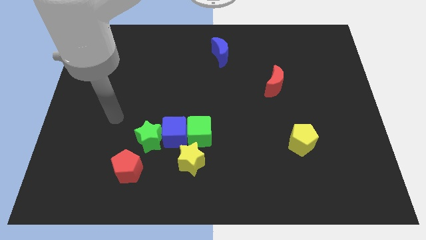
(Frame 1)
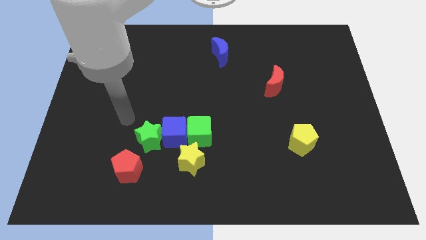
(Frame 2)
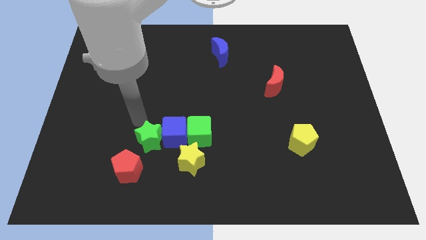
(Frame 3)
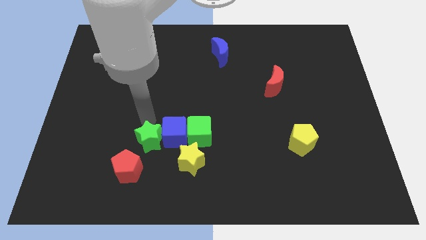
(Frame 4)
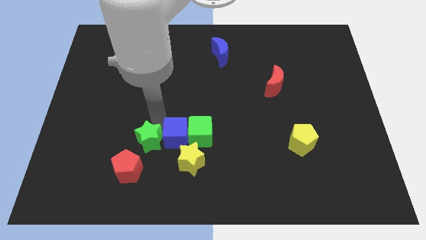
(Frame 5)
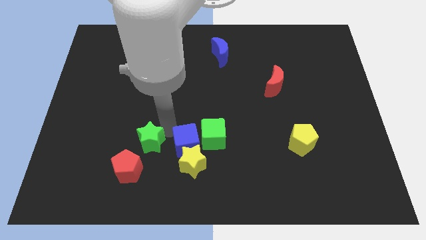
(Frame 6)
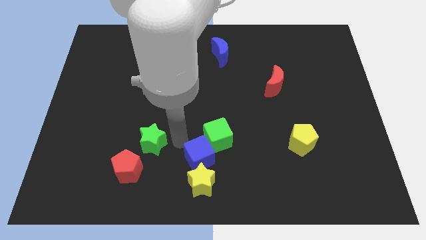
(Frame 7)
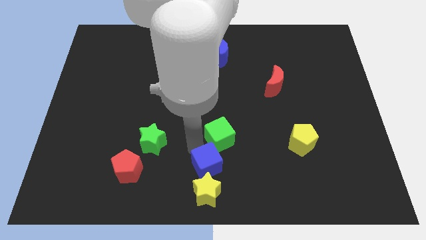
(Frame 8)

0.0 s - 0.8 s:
pull the green cube apart from the blue cube and yellow star

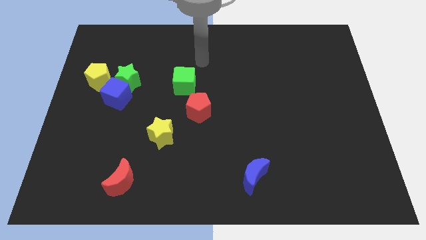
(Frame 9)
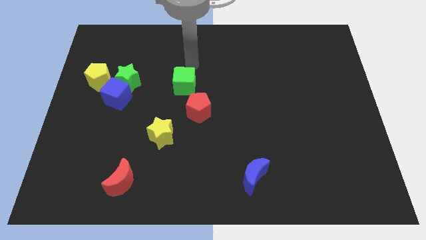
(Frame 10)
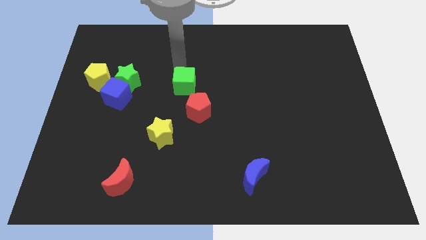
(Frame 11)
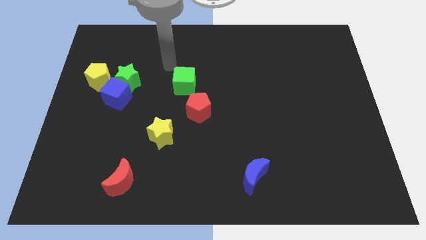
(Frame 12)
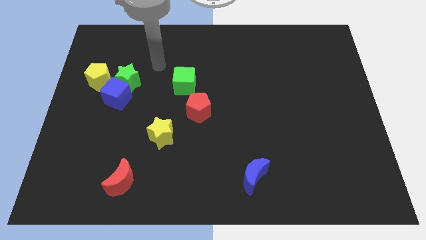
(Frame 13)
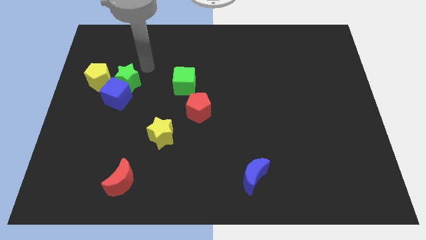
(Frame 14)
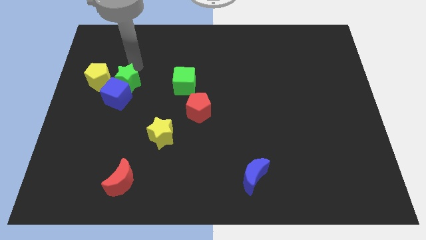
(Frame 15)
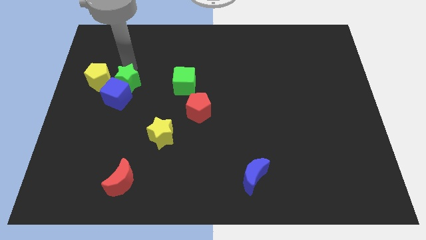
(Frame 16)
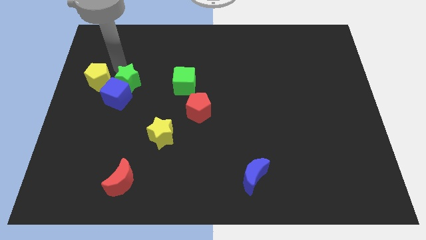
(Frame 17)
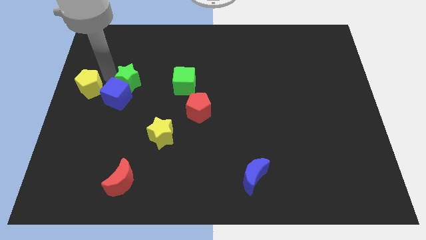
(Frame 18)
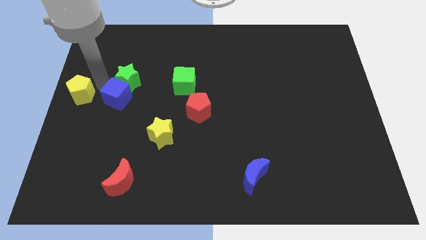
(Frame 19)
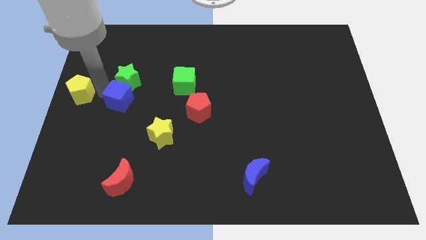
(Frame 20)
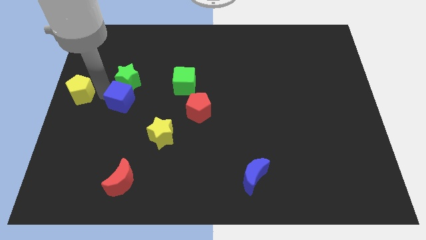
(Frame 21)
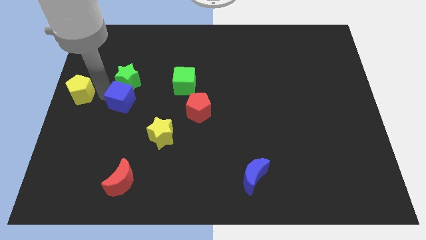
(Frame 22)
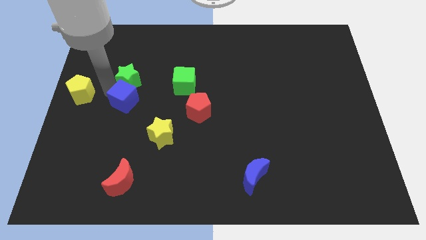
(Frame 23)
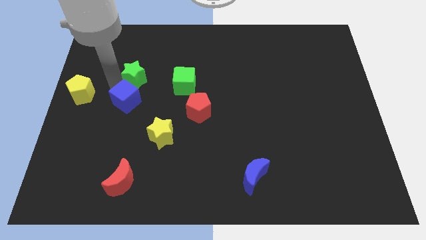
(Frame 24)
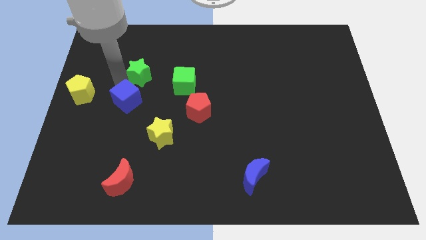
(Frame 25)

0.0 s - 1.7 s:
move the green star away from the blue cube and yellow pentagon

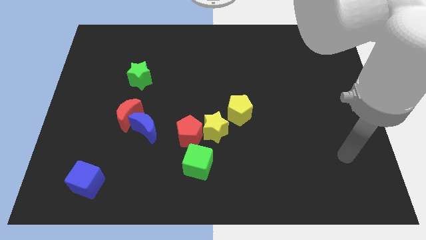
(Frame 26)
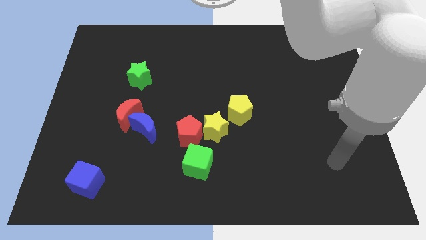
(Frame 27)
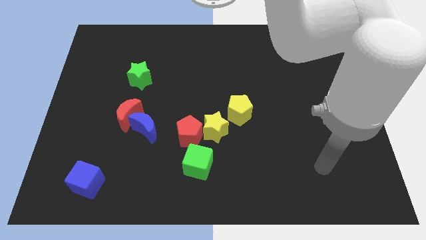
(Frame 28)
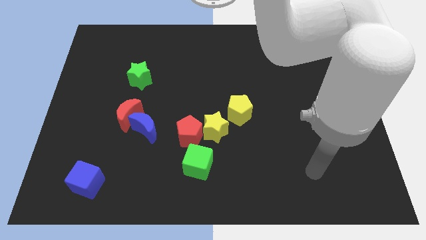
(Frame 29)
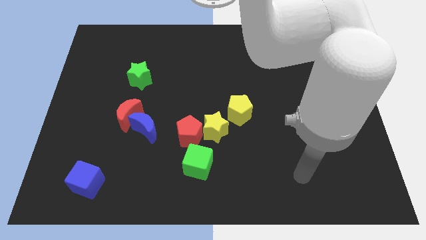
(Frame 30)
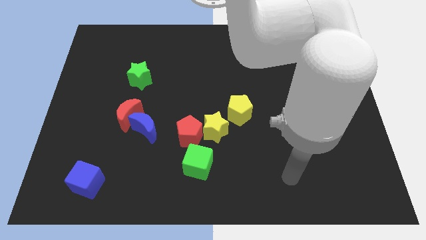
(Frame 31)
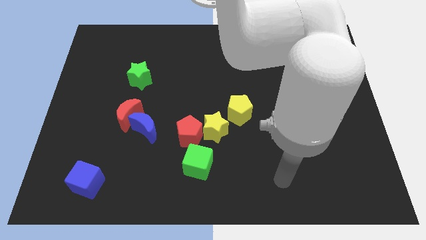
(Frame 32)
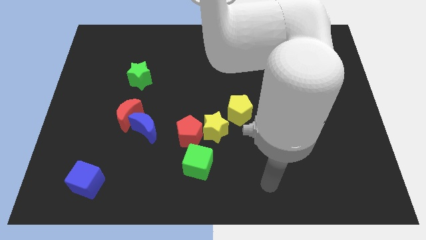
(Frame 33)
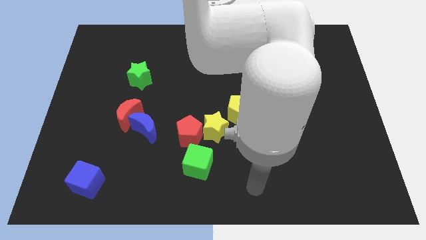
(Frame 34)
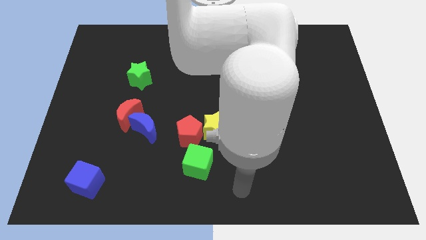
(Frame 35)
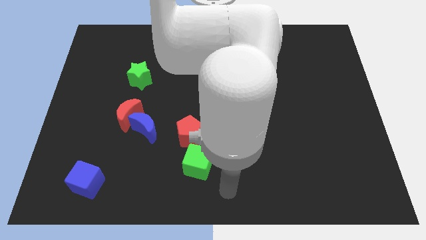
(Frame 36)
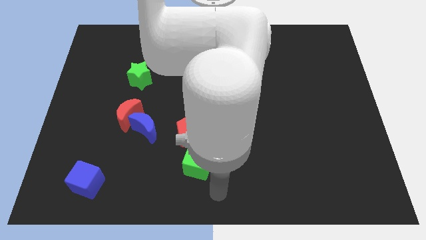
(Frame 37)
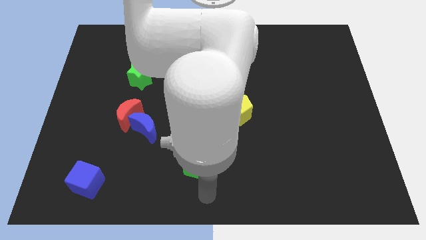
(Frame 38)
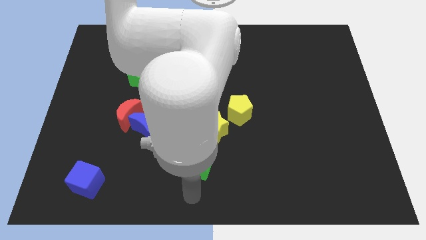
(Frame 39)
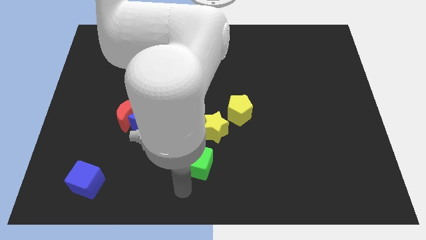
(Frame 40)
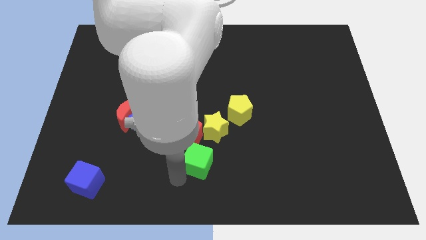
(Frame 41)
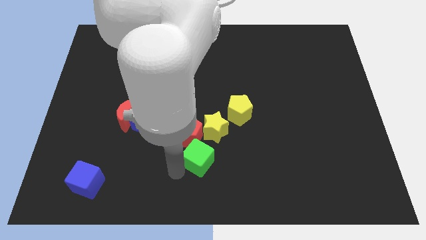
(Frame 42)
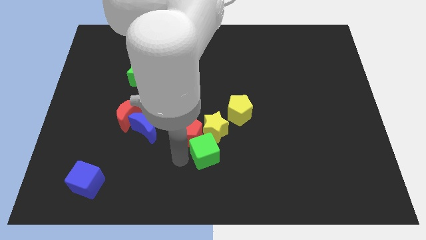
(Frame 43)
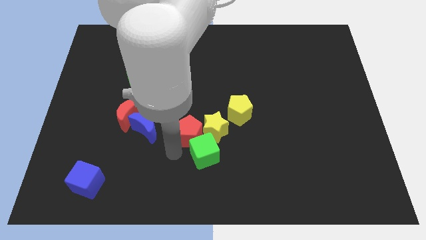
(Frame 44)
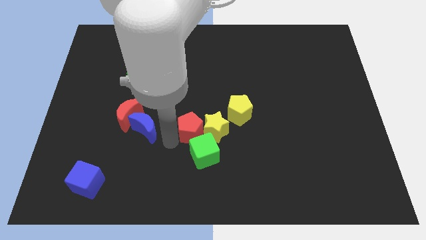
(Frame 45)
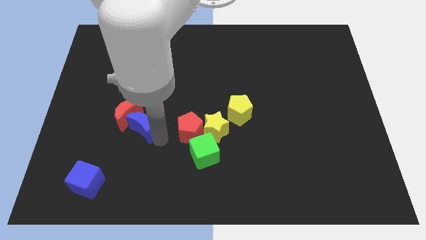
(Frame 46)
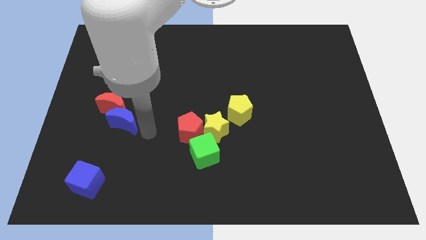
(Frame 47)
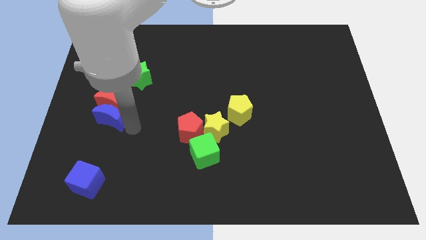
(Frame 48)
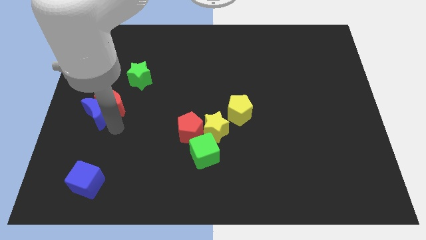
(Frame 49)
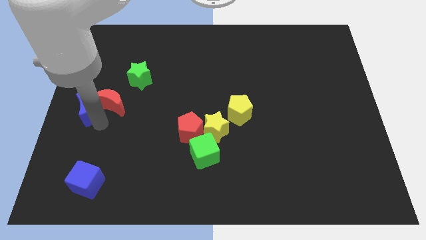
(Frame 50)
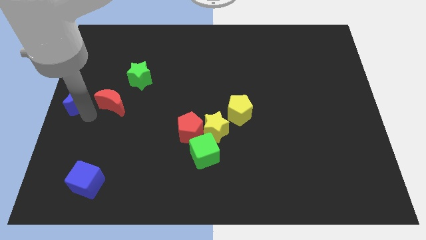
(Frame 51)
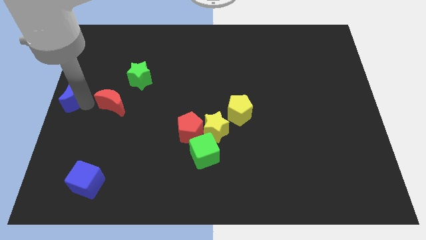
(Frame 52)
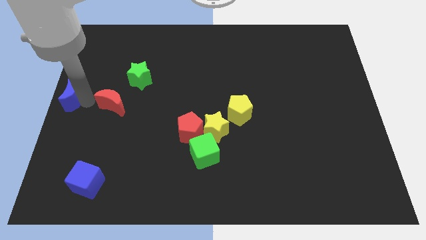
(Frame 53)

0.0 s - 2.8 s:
separate the red moon from the blue moon

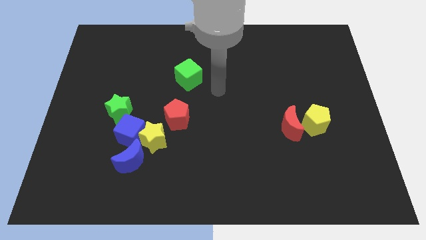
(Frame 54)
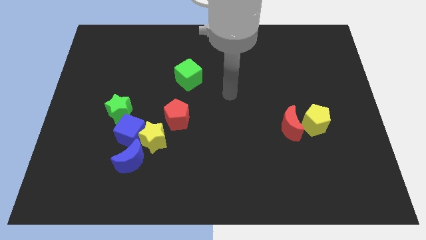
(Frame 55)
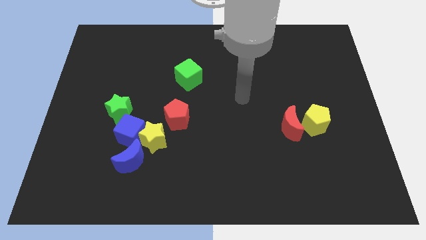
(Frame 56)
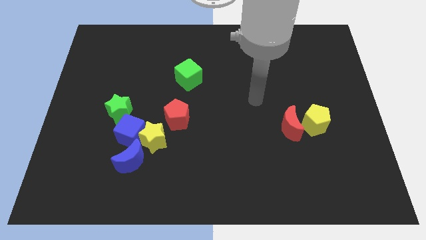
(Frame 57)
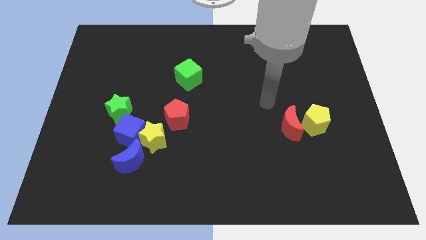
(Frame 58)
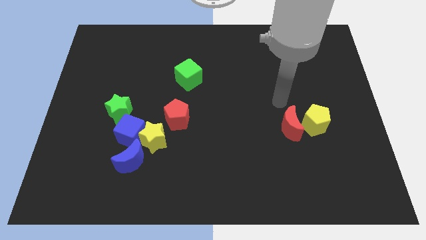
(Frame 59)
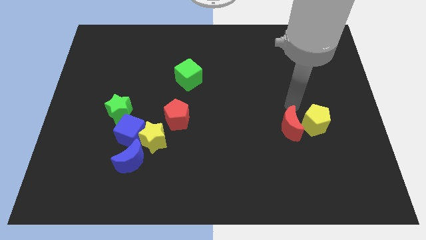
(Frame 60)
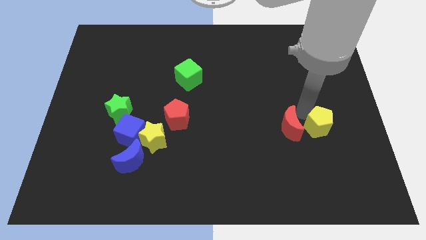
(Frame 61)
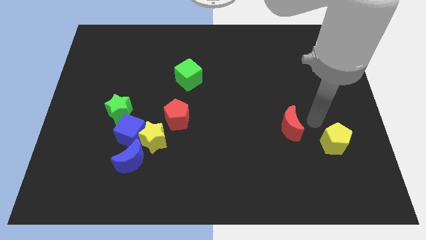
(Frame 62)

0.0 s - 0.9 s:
separate the red moon from the yellow pentagon

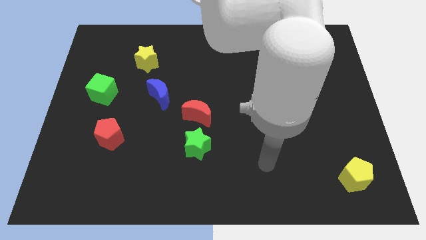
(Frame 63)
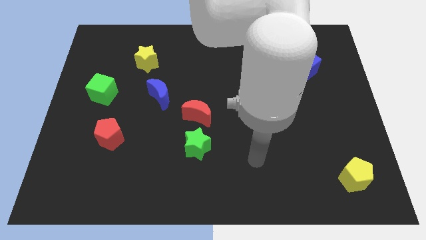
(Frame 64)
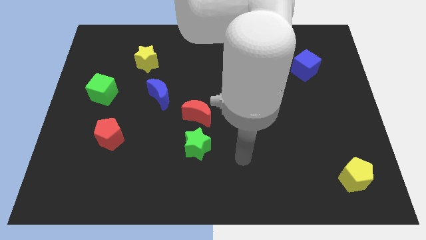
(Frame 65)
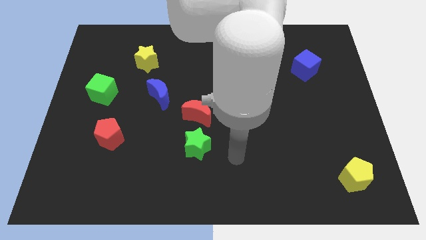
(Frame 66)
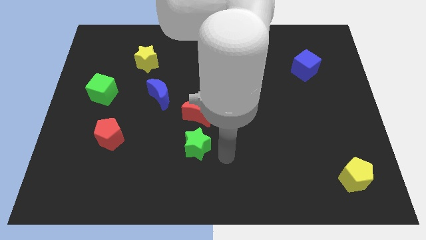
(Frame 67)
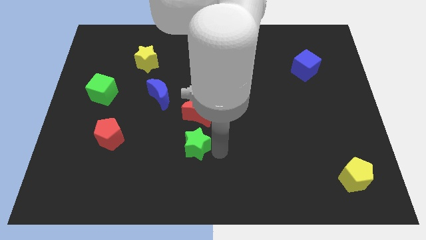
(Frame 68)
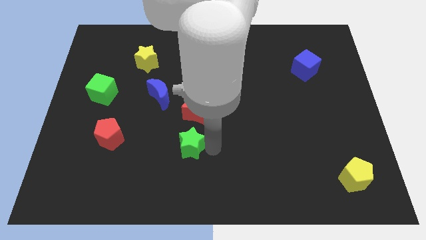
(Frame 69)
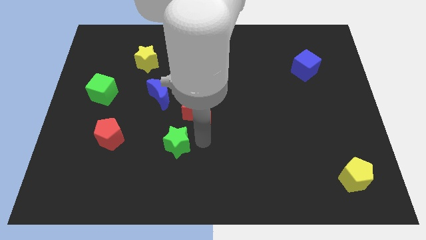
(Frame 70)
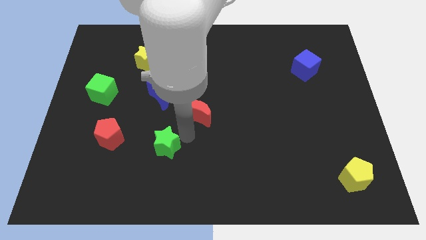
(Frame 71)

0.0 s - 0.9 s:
pull the red moon apart from the green star

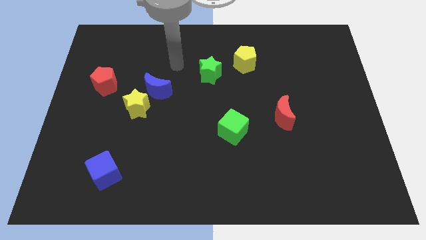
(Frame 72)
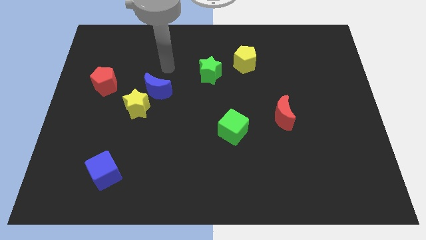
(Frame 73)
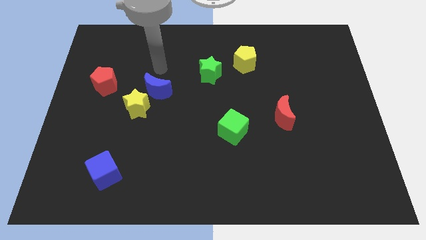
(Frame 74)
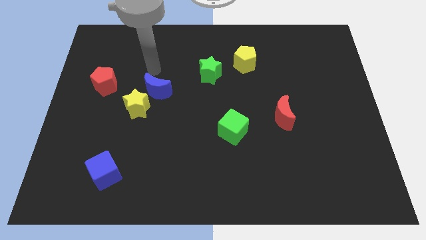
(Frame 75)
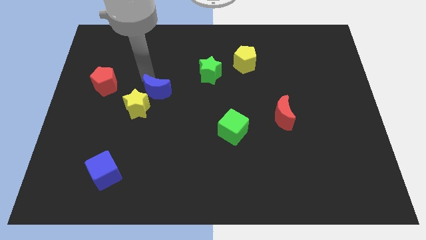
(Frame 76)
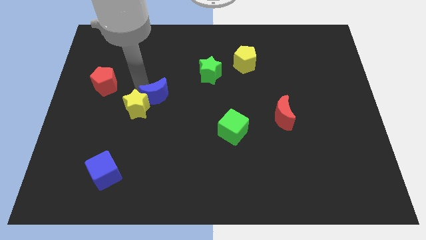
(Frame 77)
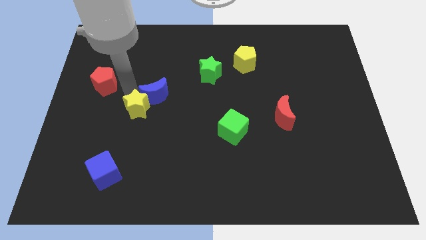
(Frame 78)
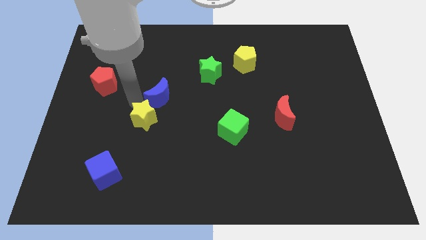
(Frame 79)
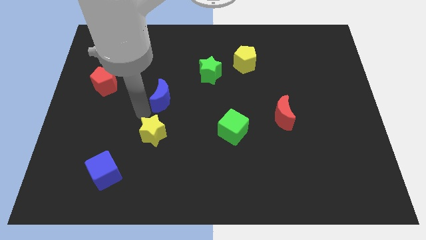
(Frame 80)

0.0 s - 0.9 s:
pull the blue moon apart from the yellow star

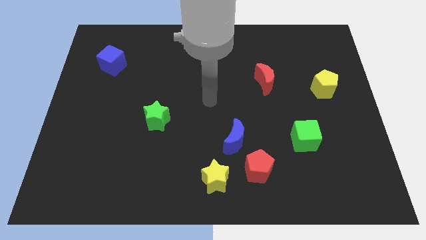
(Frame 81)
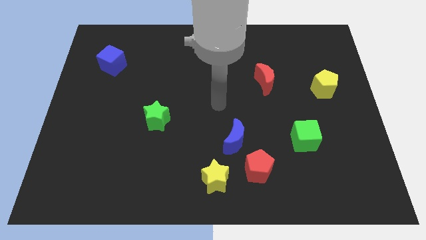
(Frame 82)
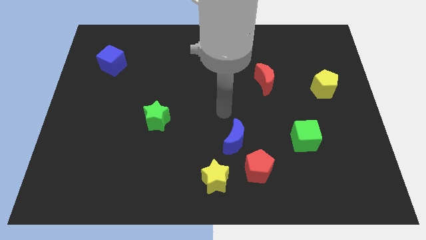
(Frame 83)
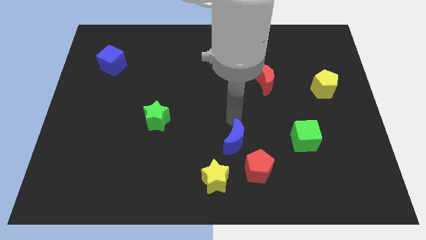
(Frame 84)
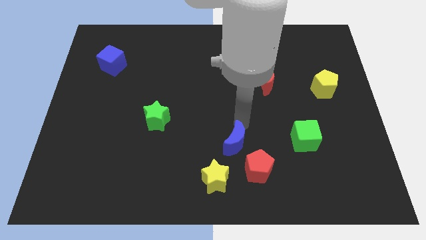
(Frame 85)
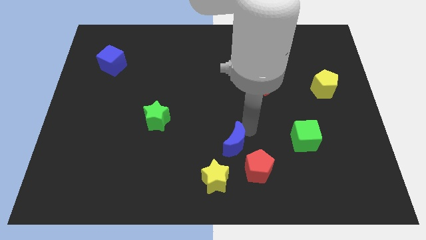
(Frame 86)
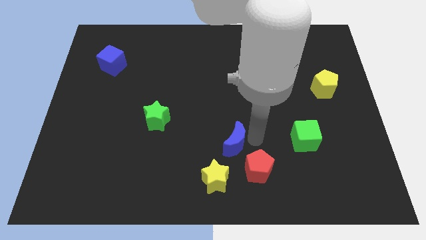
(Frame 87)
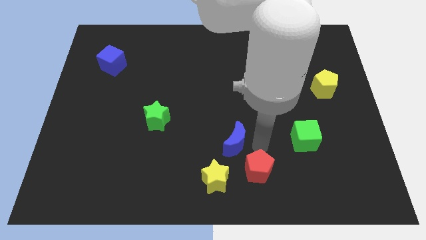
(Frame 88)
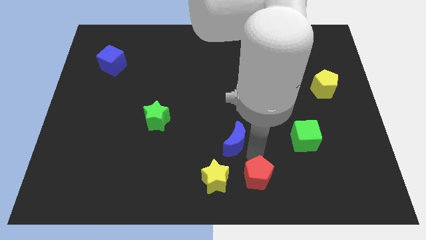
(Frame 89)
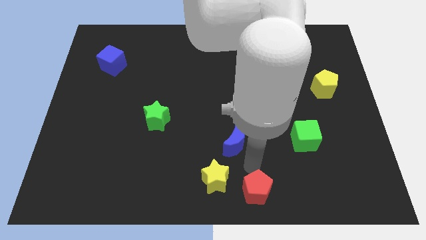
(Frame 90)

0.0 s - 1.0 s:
separate the blue moon from the red pentagon

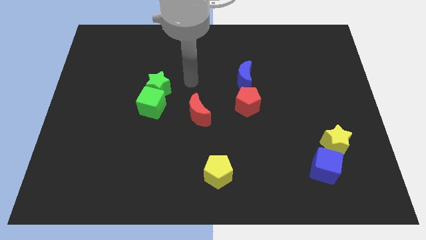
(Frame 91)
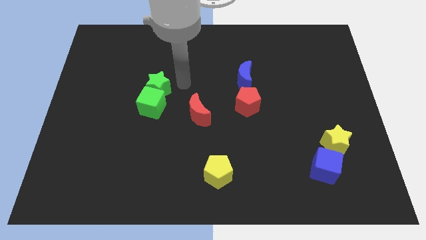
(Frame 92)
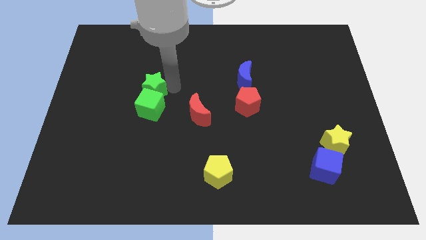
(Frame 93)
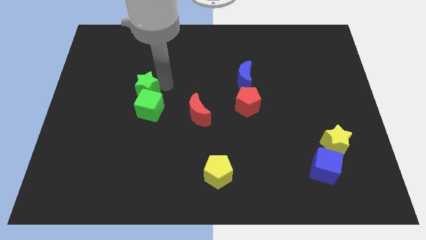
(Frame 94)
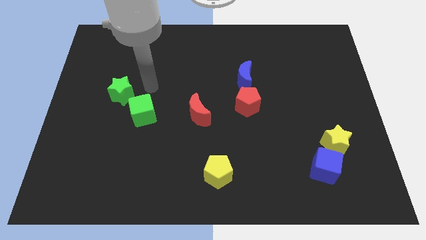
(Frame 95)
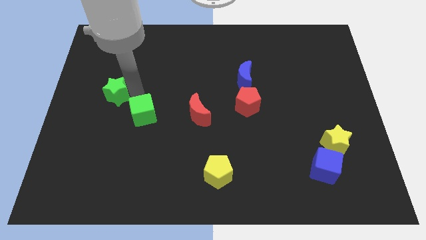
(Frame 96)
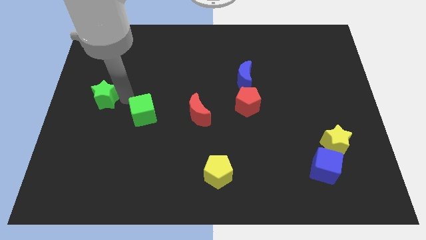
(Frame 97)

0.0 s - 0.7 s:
move the green cube away from the green star
